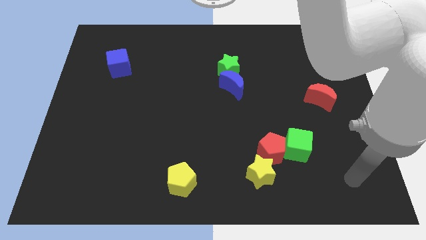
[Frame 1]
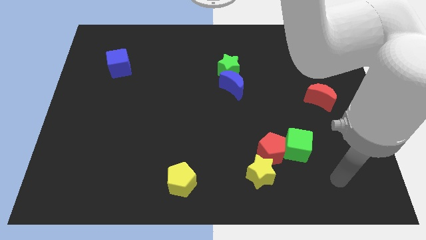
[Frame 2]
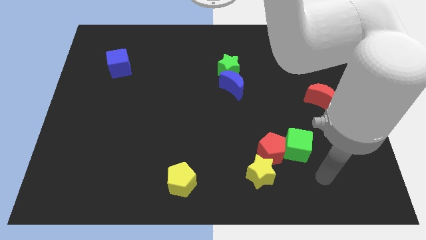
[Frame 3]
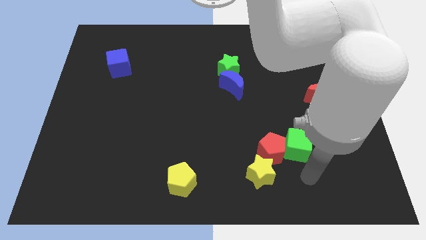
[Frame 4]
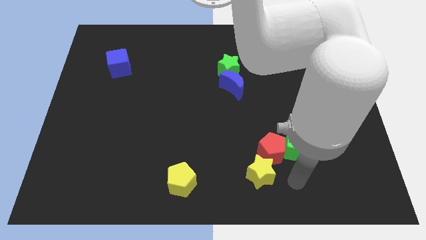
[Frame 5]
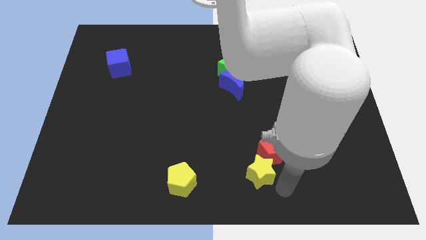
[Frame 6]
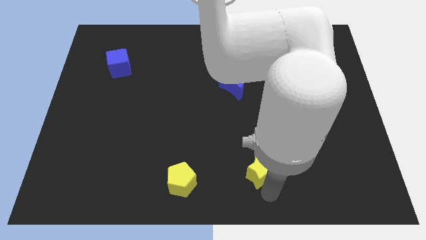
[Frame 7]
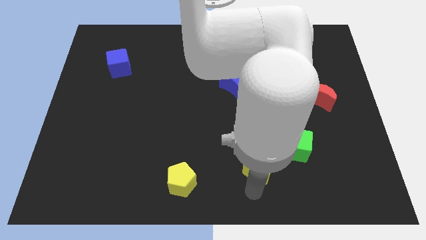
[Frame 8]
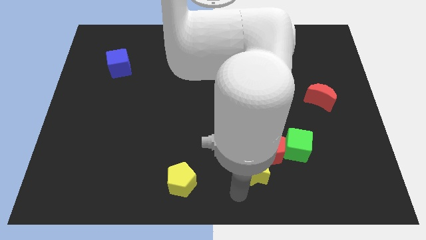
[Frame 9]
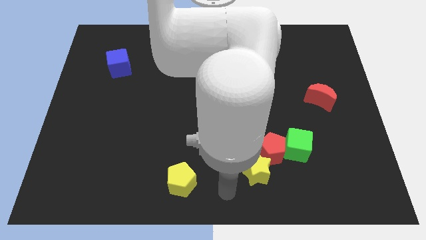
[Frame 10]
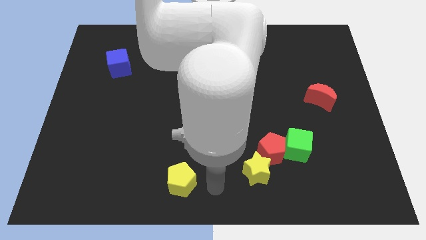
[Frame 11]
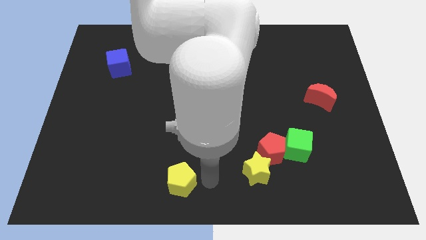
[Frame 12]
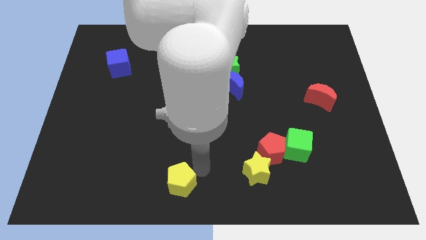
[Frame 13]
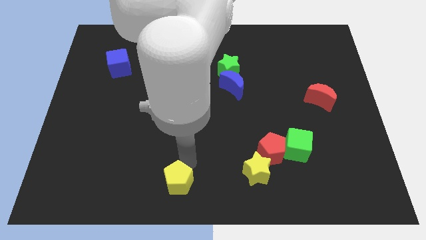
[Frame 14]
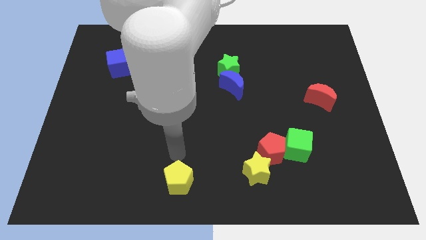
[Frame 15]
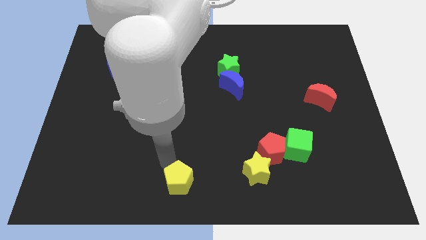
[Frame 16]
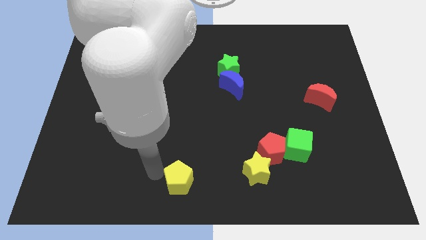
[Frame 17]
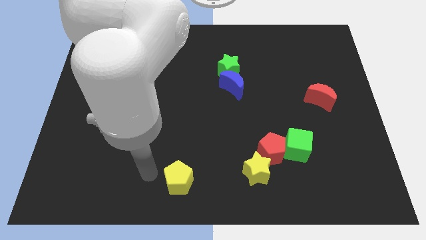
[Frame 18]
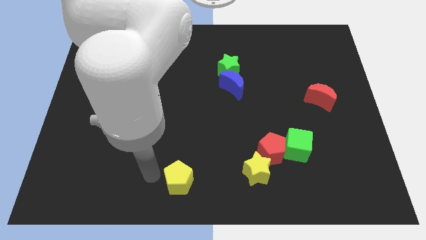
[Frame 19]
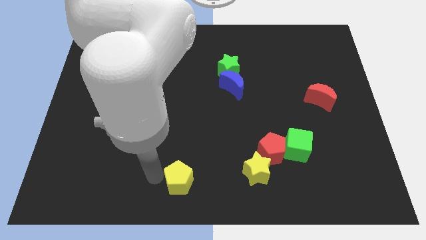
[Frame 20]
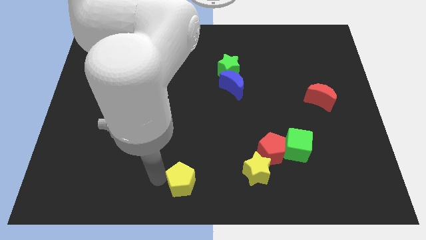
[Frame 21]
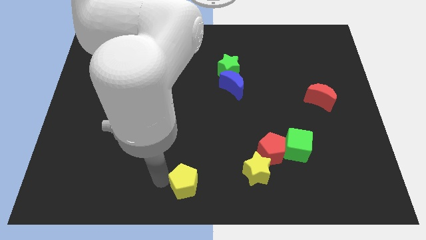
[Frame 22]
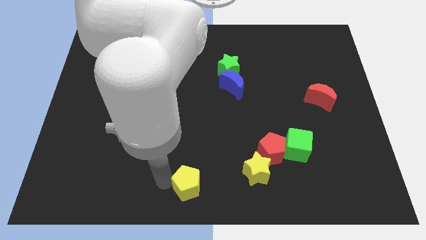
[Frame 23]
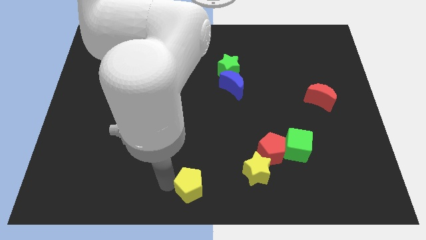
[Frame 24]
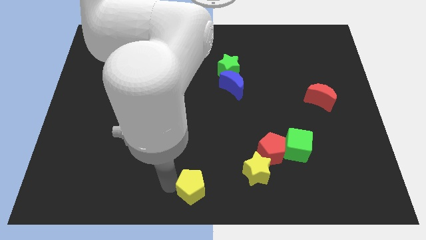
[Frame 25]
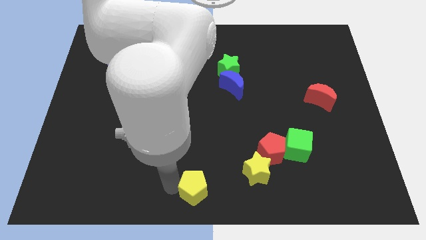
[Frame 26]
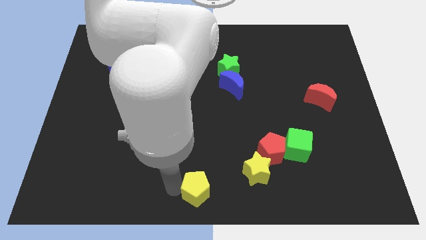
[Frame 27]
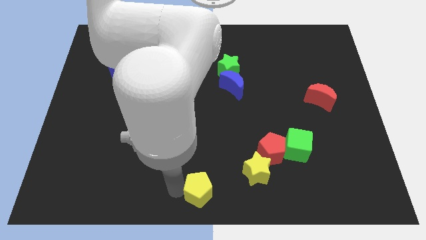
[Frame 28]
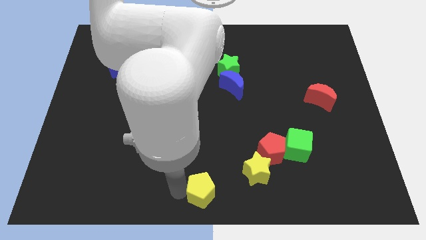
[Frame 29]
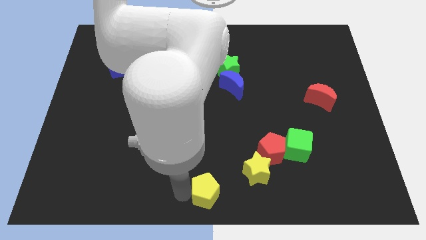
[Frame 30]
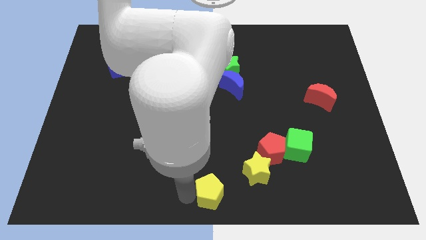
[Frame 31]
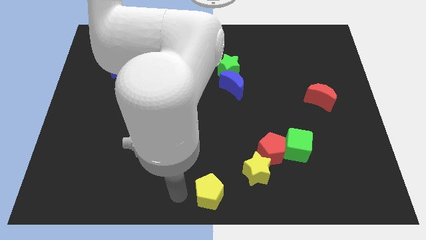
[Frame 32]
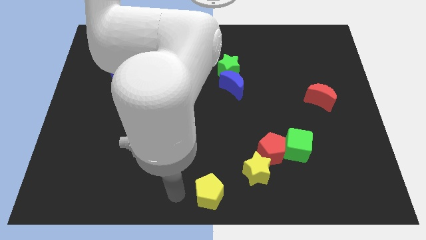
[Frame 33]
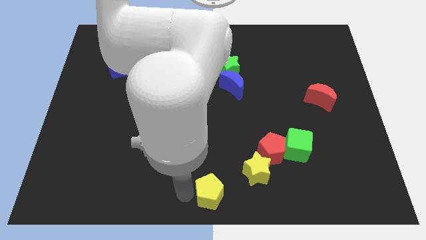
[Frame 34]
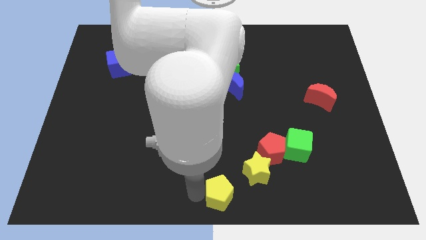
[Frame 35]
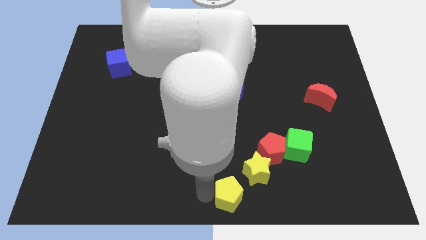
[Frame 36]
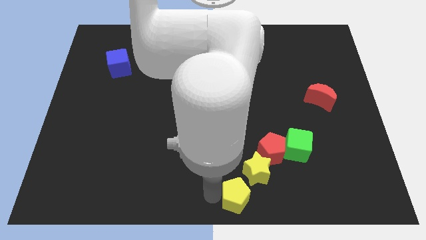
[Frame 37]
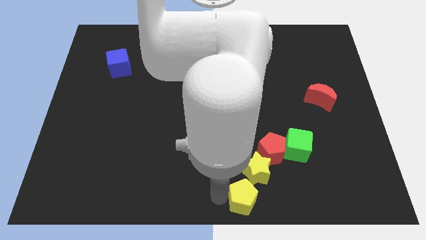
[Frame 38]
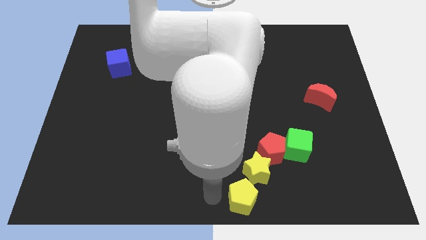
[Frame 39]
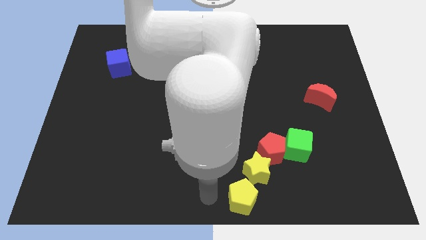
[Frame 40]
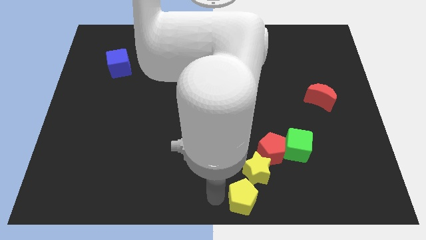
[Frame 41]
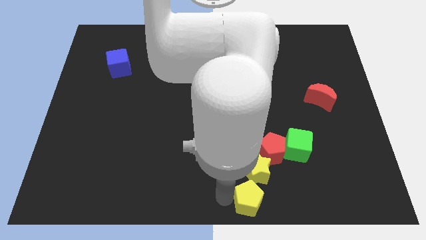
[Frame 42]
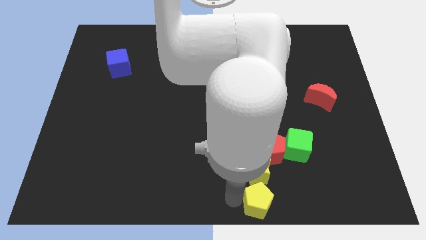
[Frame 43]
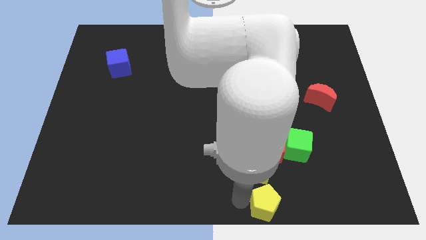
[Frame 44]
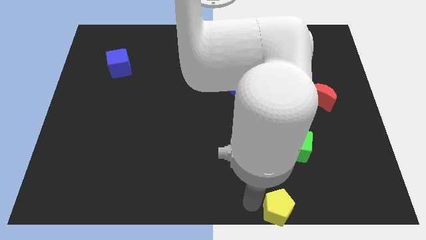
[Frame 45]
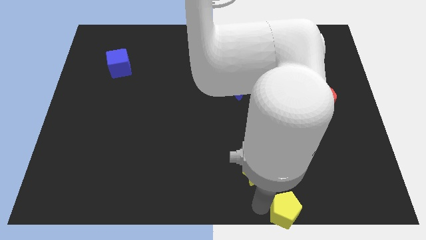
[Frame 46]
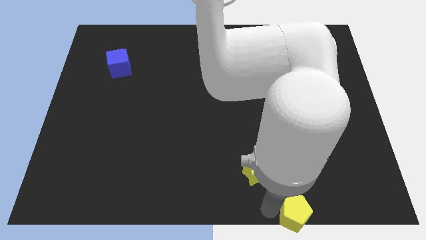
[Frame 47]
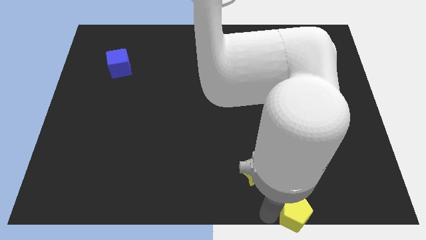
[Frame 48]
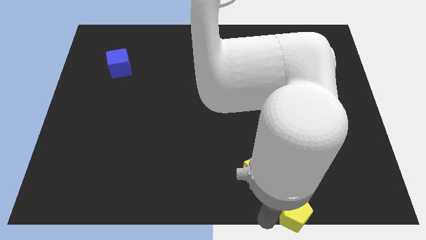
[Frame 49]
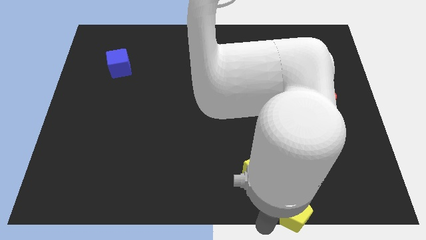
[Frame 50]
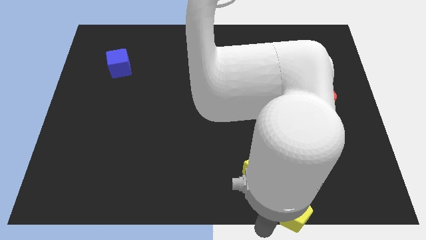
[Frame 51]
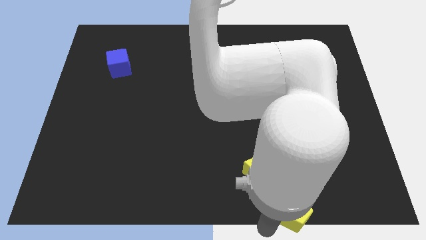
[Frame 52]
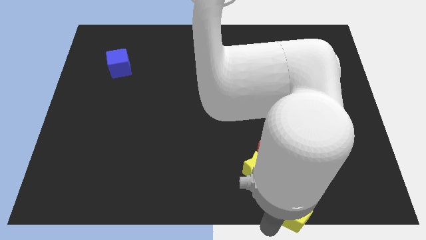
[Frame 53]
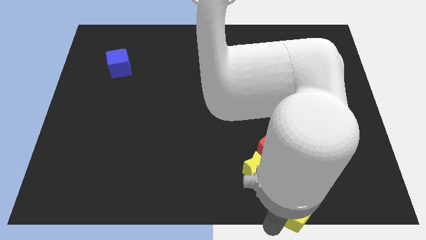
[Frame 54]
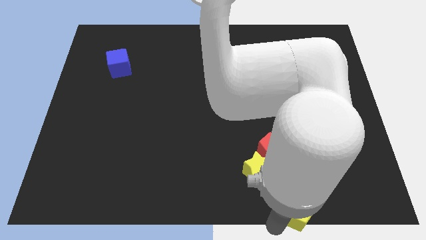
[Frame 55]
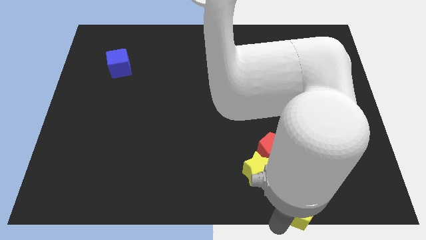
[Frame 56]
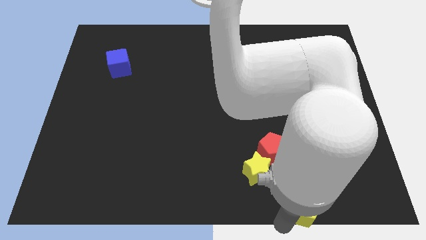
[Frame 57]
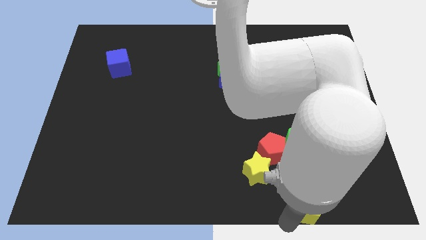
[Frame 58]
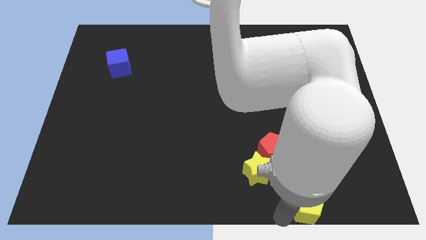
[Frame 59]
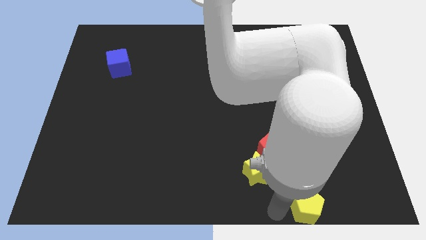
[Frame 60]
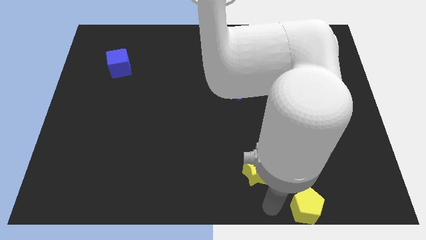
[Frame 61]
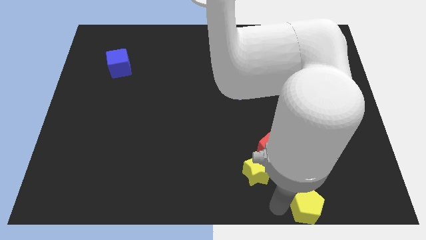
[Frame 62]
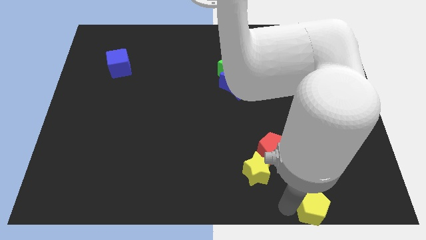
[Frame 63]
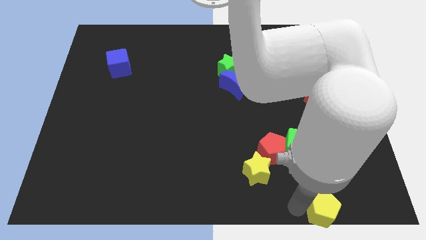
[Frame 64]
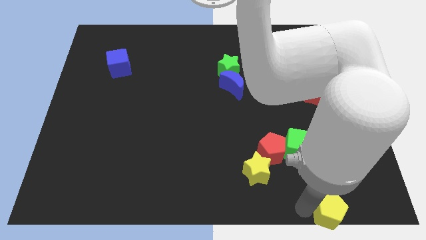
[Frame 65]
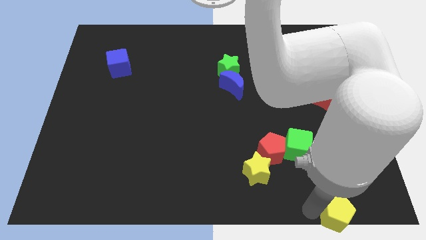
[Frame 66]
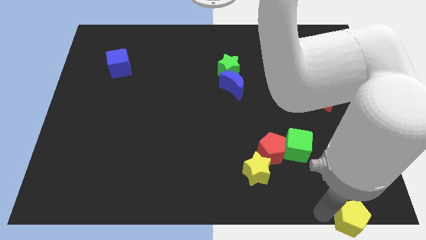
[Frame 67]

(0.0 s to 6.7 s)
put the yellow pentagon to the bottom right of the board
